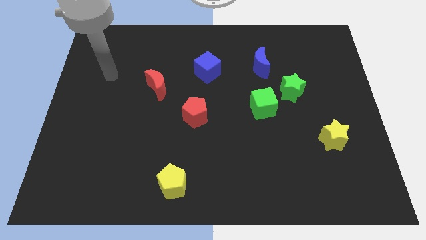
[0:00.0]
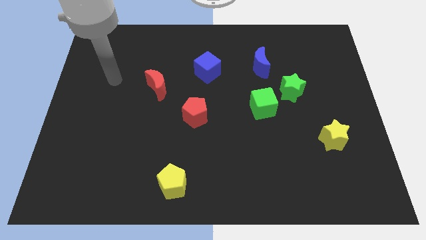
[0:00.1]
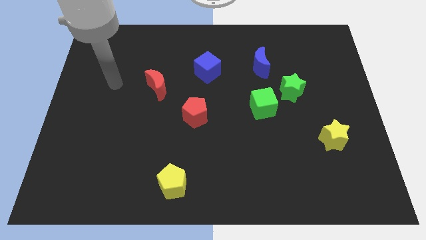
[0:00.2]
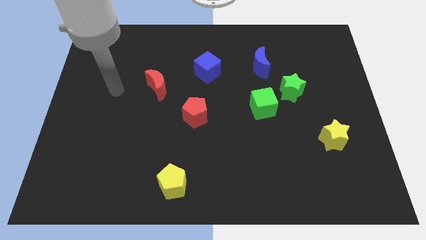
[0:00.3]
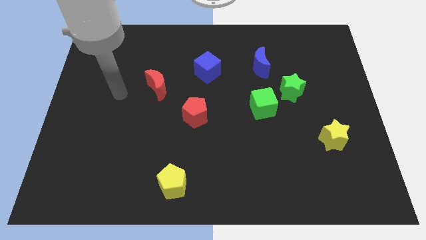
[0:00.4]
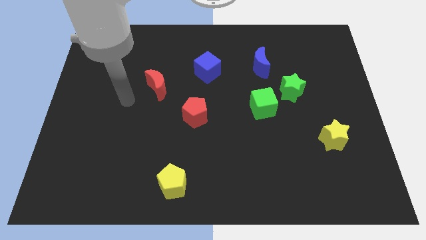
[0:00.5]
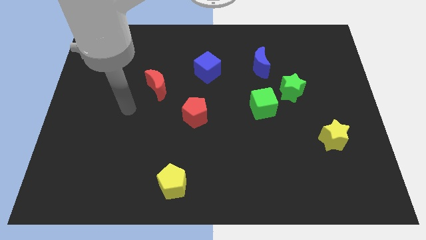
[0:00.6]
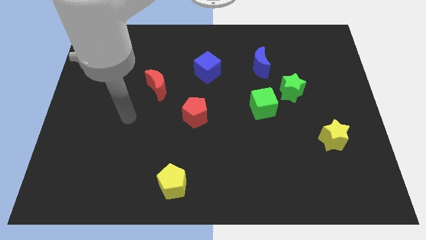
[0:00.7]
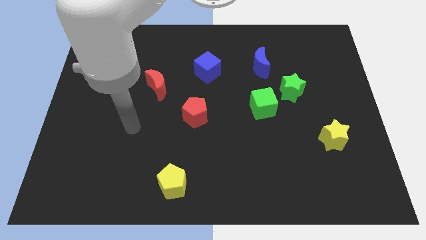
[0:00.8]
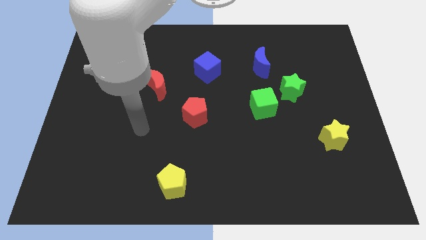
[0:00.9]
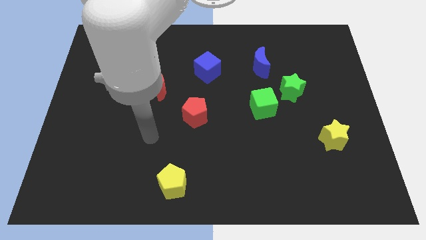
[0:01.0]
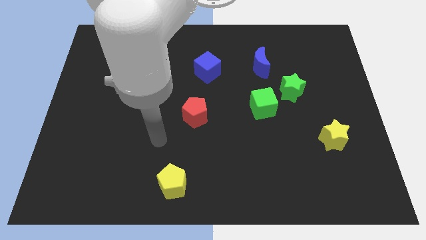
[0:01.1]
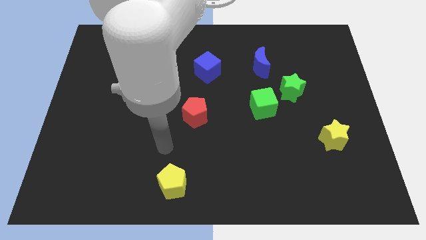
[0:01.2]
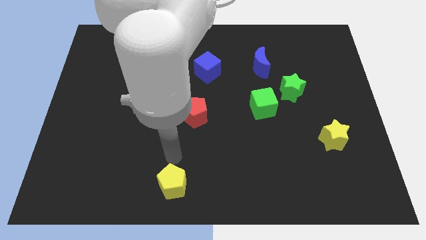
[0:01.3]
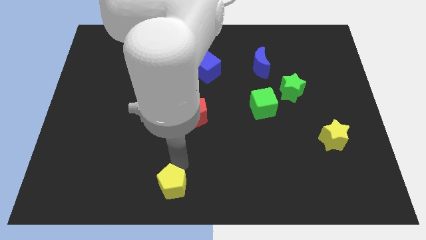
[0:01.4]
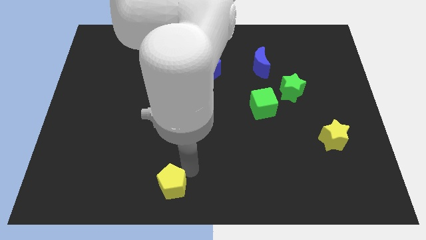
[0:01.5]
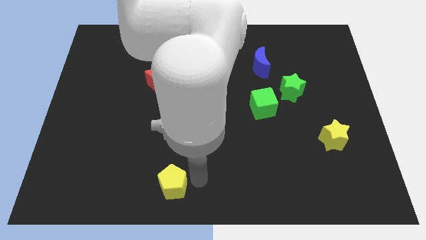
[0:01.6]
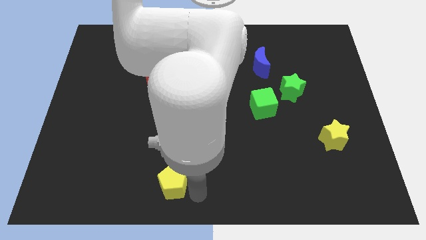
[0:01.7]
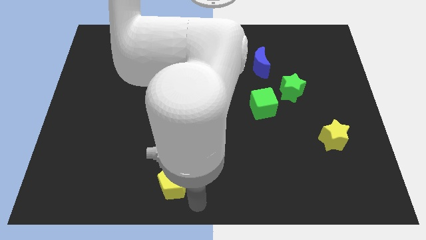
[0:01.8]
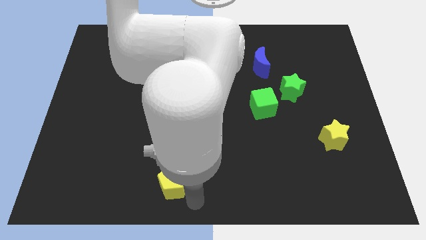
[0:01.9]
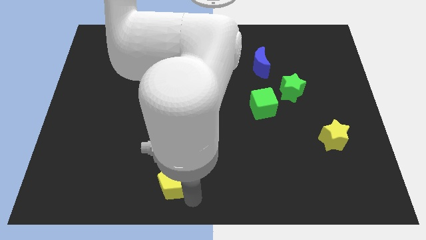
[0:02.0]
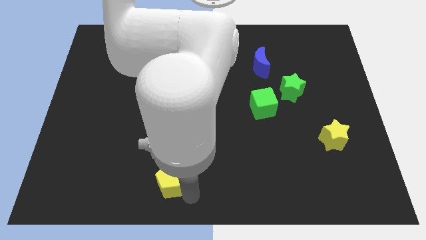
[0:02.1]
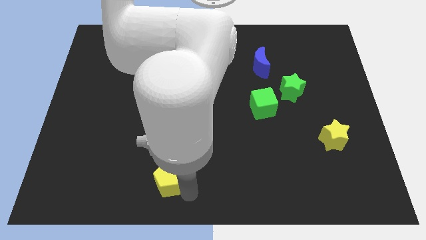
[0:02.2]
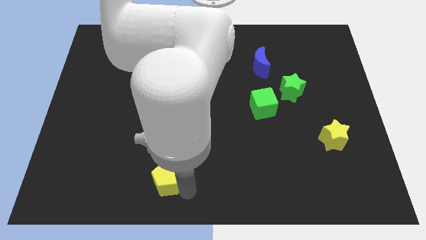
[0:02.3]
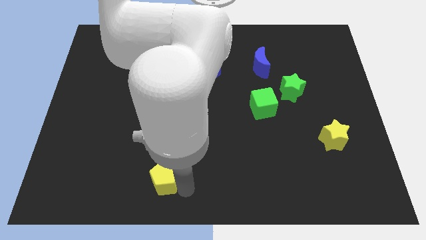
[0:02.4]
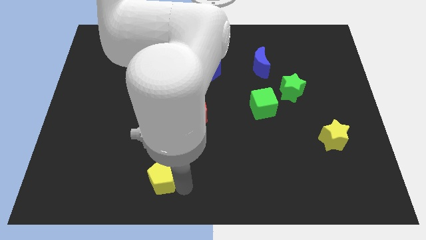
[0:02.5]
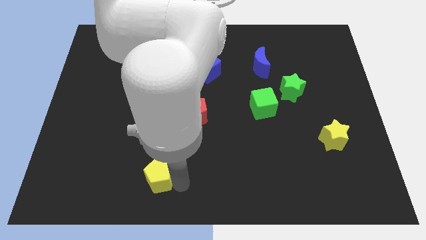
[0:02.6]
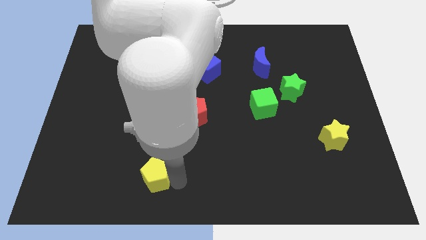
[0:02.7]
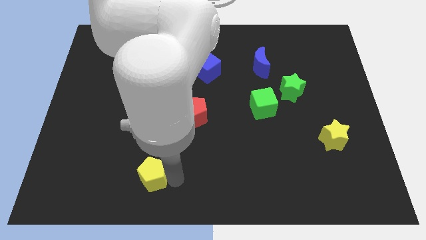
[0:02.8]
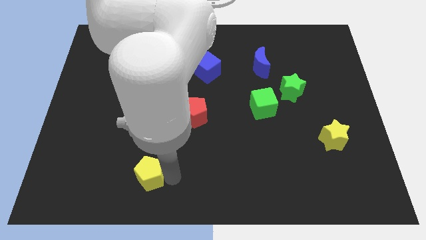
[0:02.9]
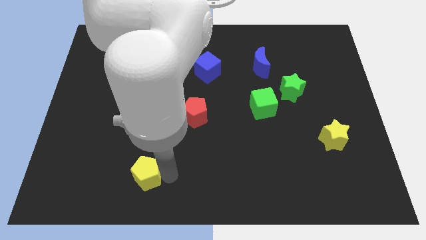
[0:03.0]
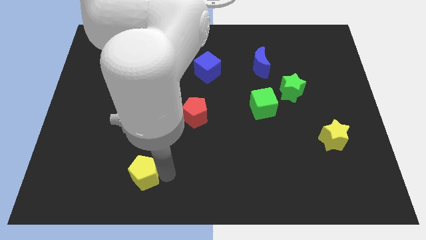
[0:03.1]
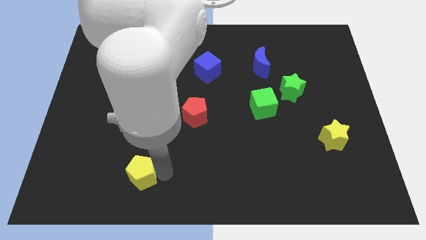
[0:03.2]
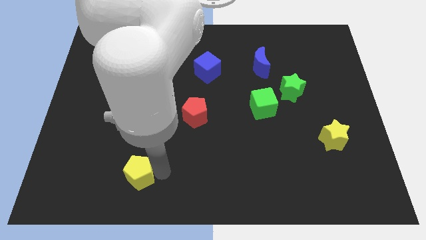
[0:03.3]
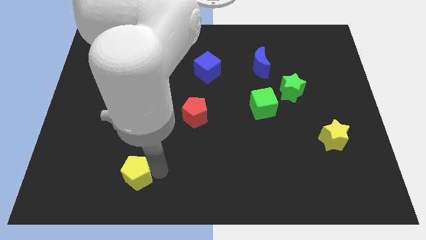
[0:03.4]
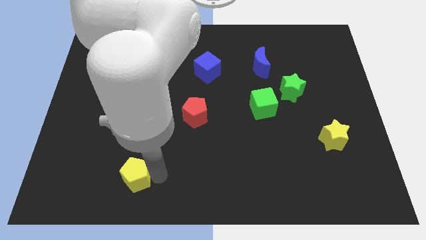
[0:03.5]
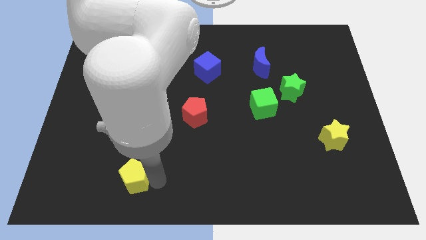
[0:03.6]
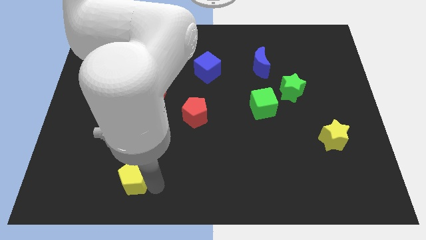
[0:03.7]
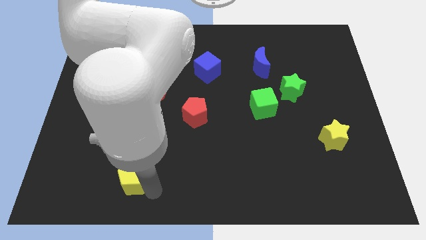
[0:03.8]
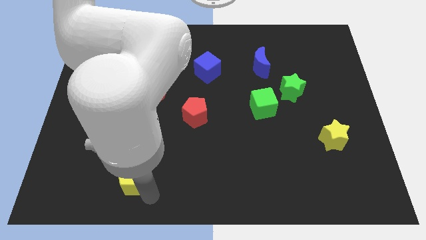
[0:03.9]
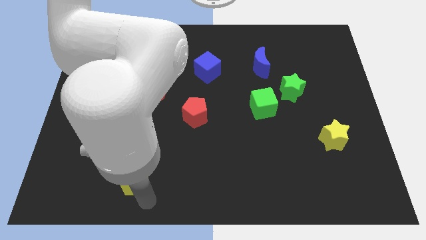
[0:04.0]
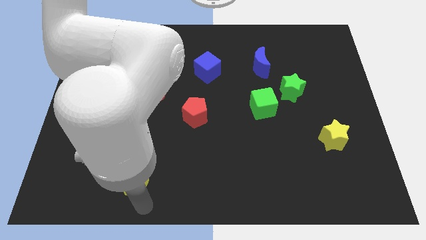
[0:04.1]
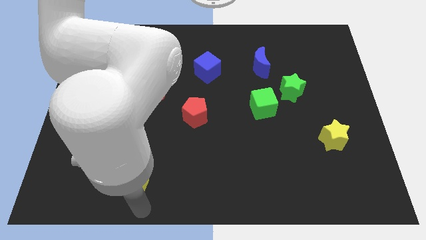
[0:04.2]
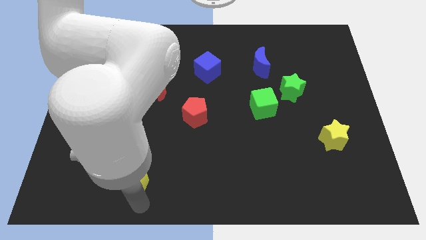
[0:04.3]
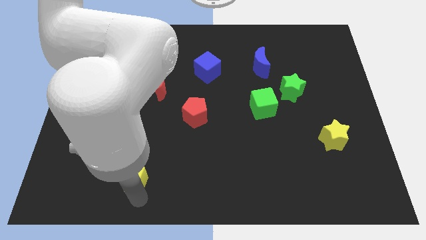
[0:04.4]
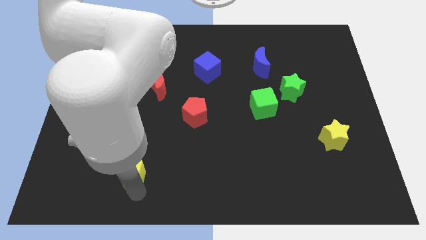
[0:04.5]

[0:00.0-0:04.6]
push the yellow pentagon a little bit upwards and left diagonally

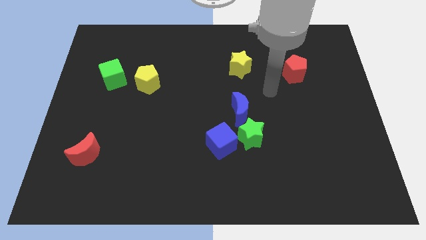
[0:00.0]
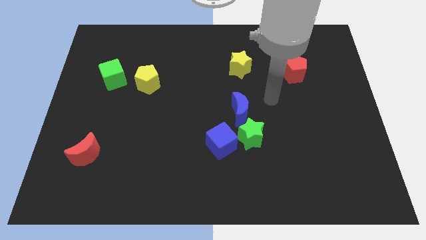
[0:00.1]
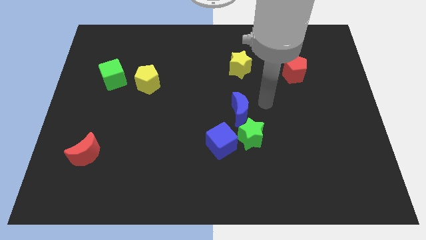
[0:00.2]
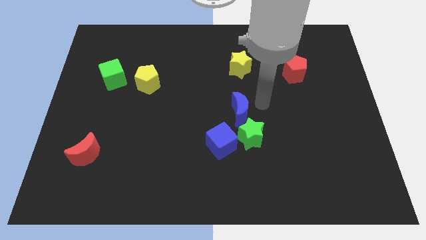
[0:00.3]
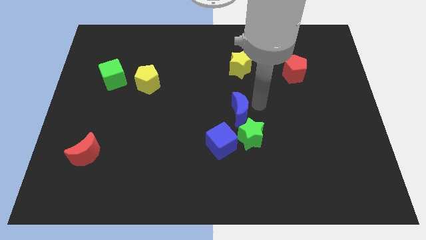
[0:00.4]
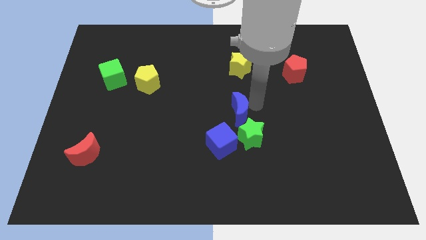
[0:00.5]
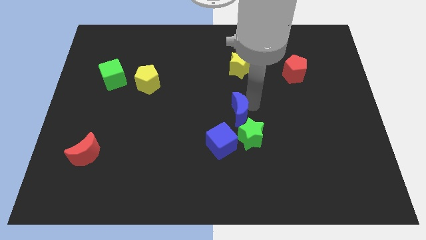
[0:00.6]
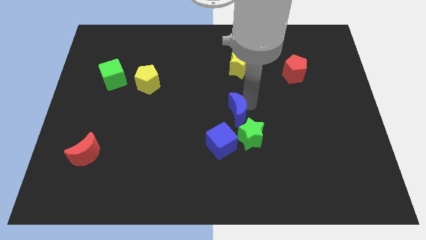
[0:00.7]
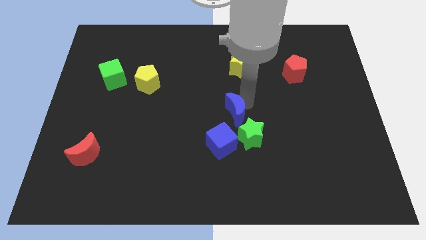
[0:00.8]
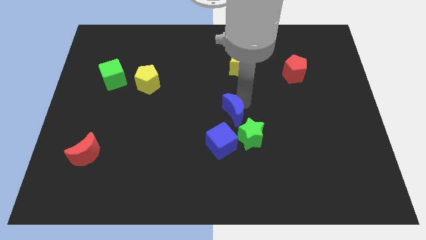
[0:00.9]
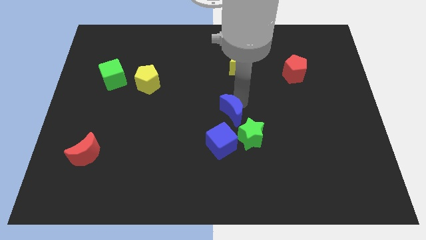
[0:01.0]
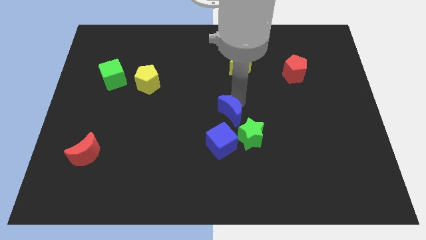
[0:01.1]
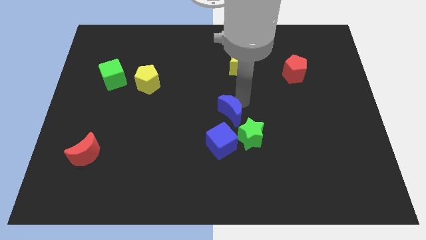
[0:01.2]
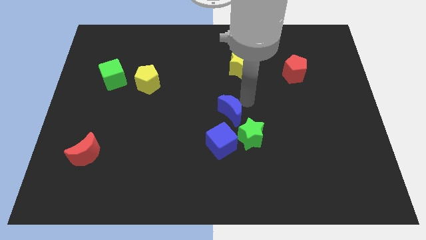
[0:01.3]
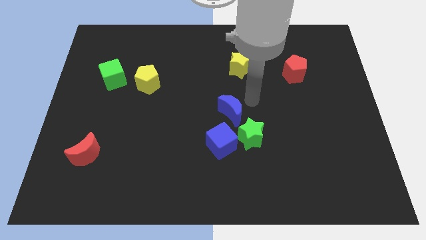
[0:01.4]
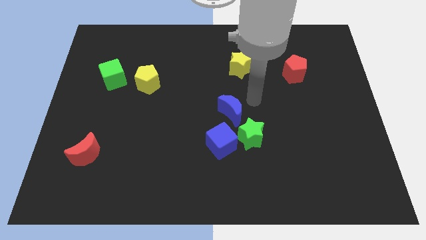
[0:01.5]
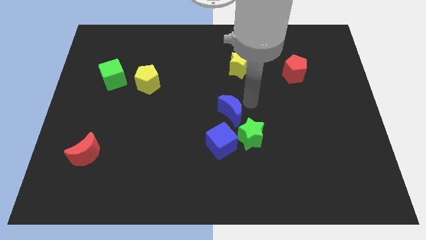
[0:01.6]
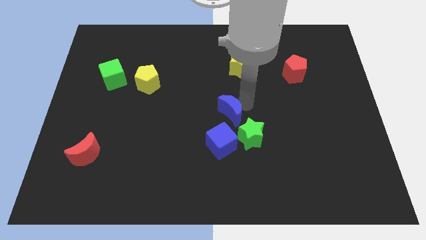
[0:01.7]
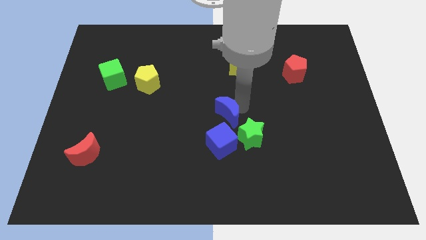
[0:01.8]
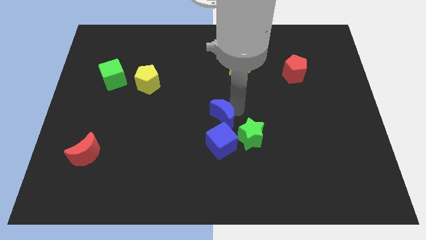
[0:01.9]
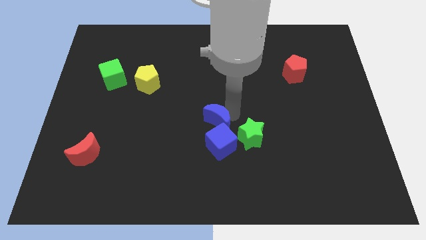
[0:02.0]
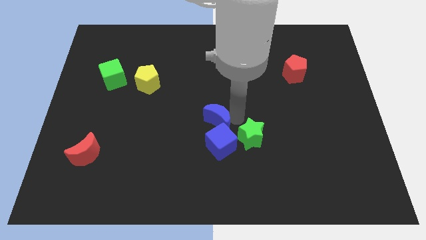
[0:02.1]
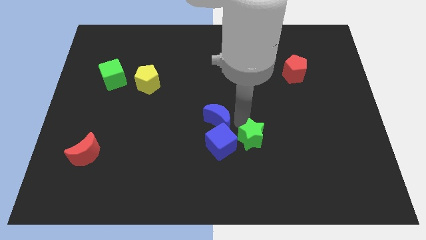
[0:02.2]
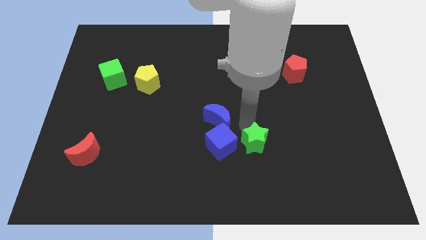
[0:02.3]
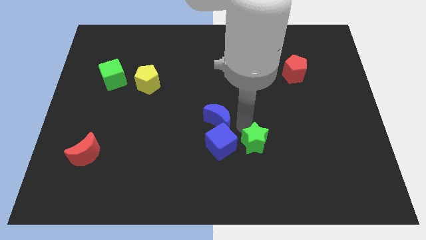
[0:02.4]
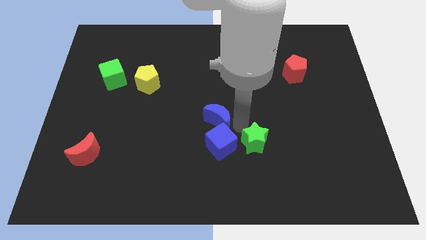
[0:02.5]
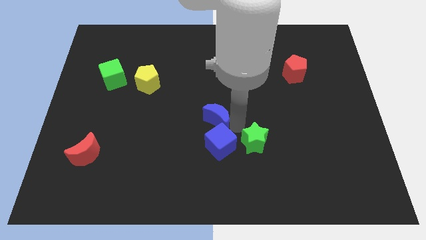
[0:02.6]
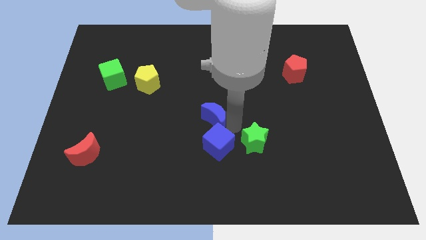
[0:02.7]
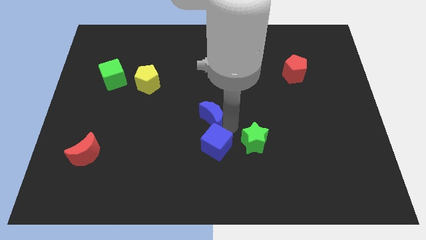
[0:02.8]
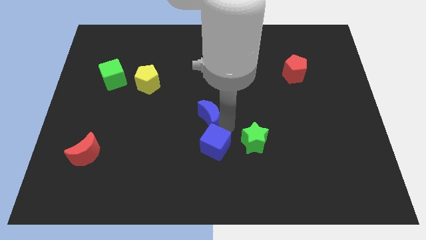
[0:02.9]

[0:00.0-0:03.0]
move the blue moon a little bit left

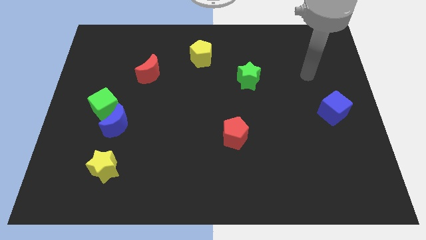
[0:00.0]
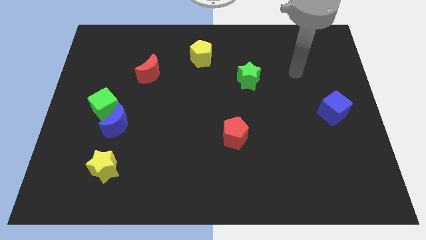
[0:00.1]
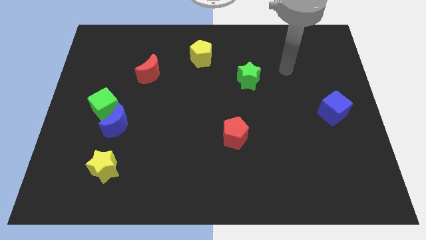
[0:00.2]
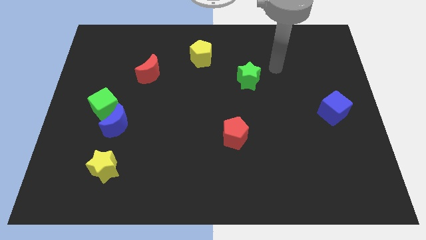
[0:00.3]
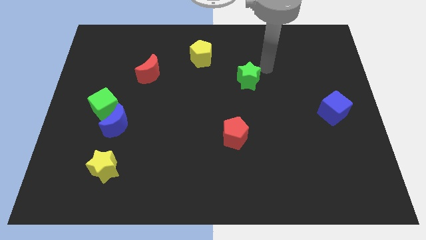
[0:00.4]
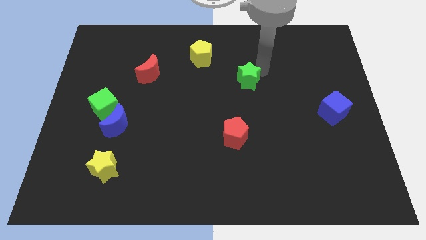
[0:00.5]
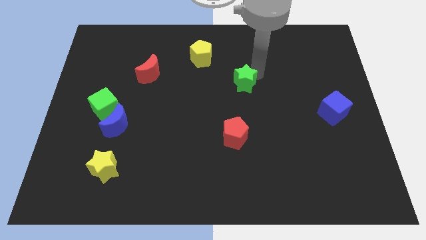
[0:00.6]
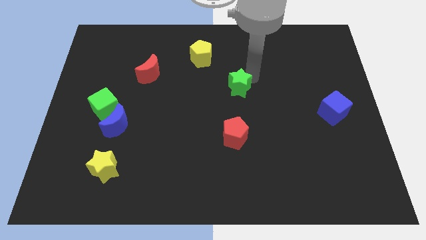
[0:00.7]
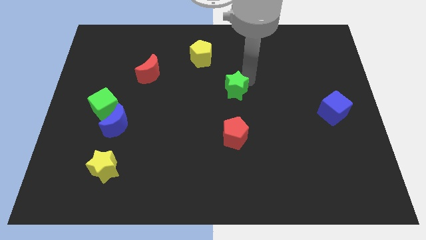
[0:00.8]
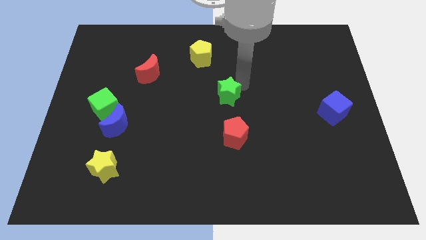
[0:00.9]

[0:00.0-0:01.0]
slightly push the green star down and then to the left
